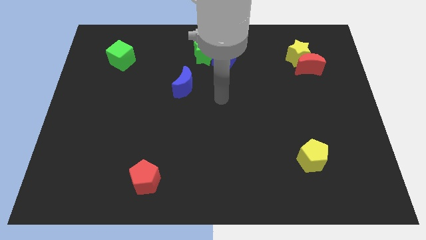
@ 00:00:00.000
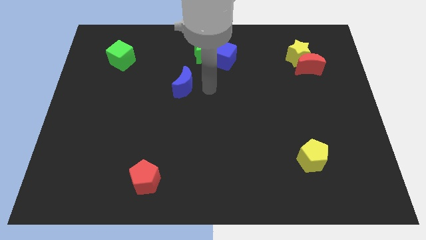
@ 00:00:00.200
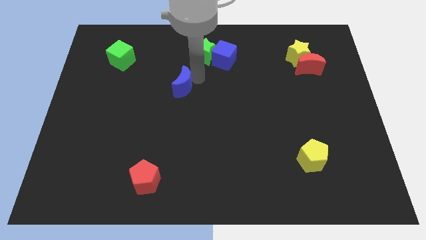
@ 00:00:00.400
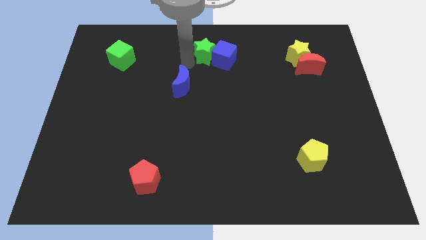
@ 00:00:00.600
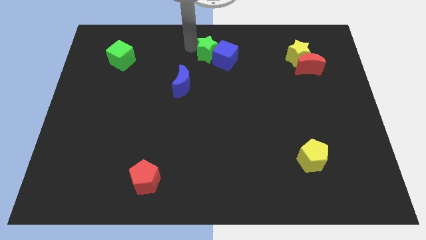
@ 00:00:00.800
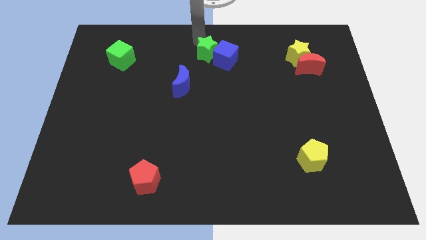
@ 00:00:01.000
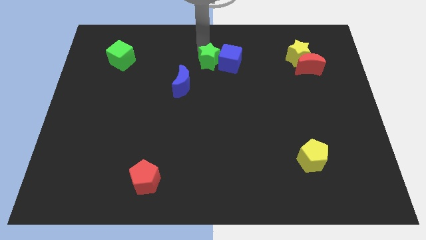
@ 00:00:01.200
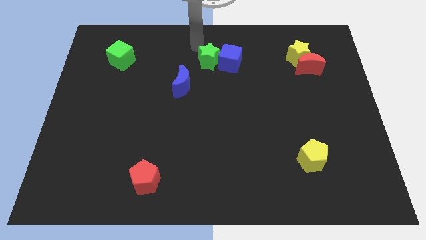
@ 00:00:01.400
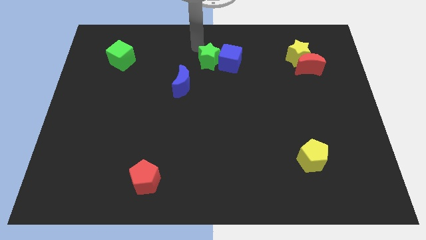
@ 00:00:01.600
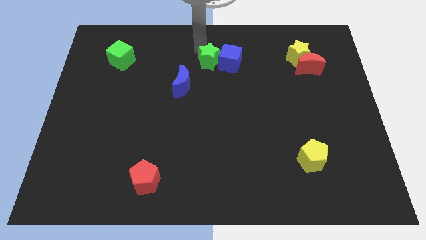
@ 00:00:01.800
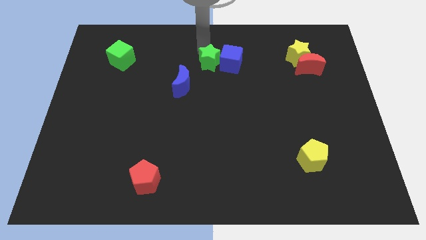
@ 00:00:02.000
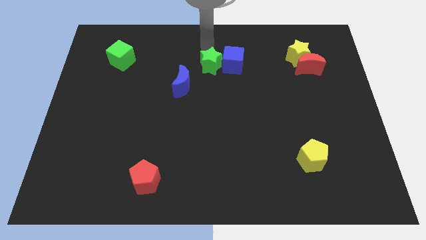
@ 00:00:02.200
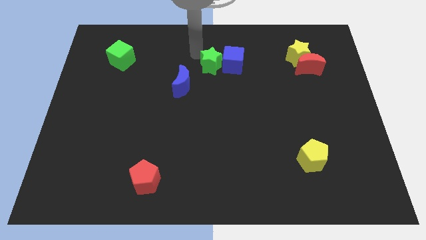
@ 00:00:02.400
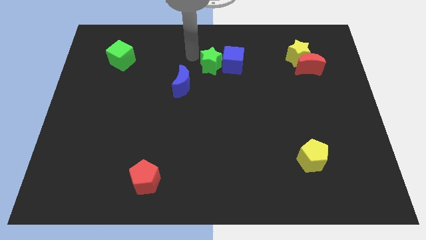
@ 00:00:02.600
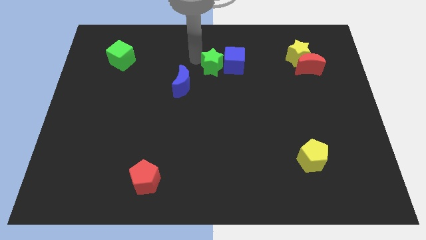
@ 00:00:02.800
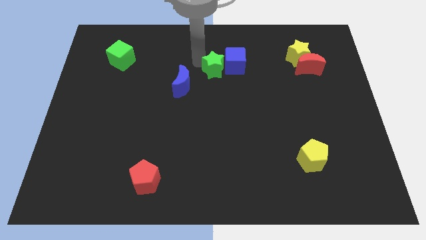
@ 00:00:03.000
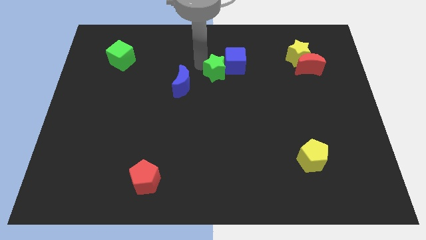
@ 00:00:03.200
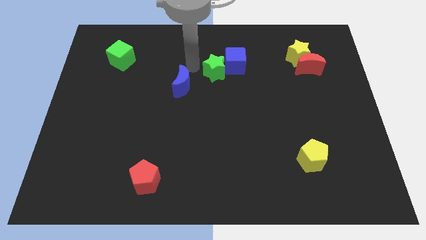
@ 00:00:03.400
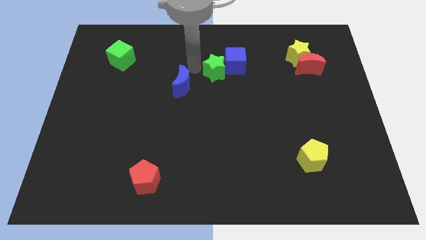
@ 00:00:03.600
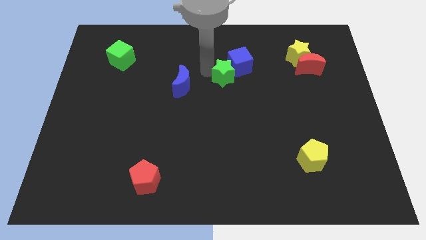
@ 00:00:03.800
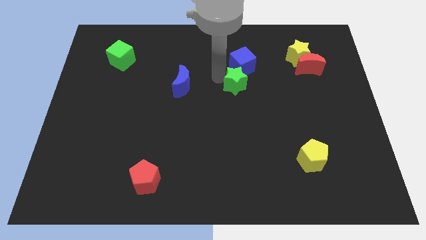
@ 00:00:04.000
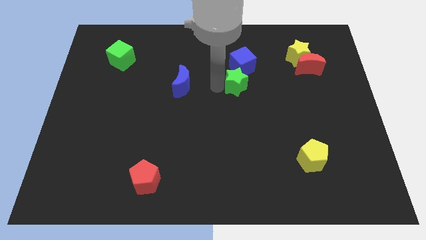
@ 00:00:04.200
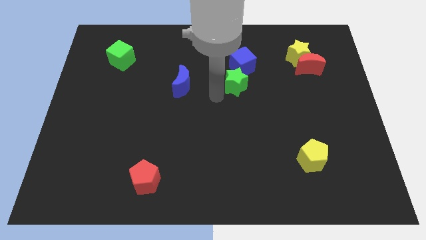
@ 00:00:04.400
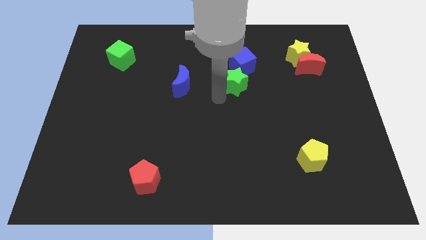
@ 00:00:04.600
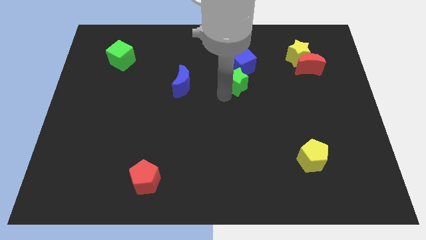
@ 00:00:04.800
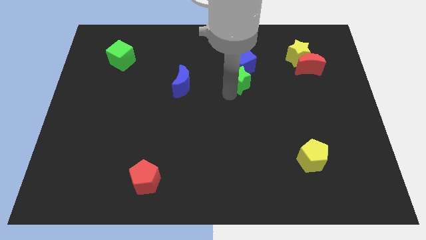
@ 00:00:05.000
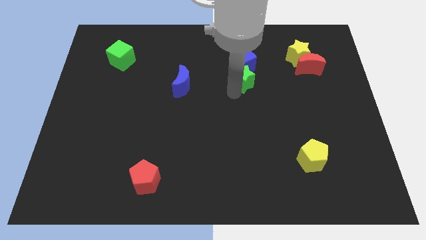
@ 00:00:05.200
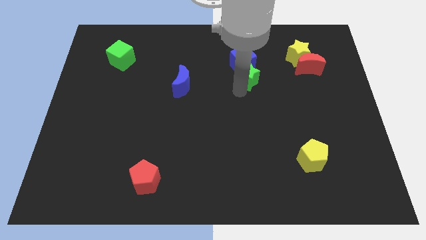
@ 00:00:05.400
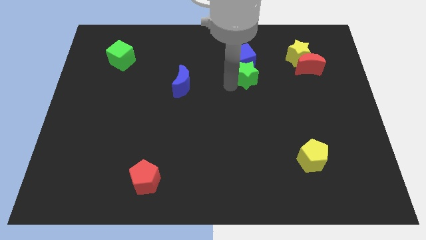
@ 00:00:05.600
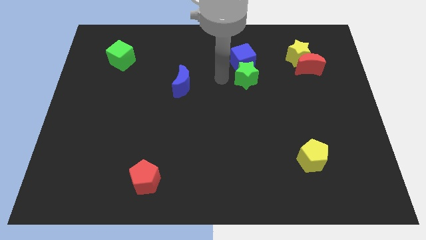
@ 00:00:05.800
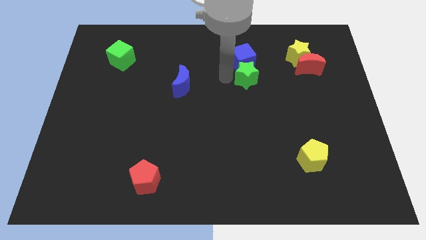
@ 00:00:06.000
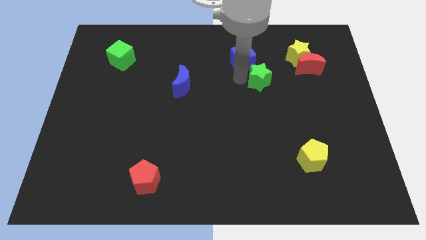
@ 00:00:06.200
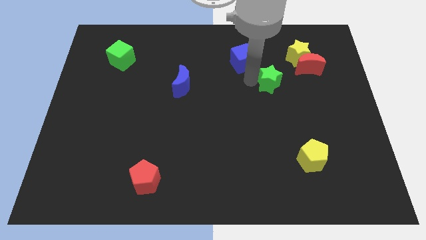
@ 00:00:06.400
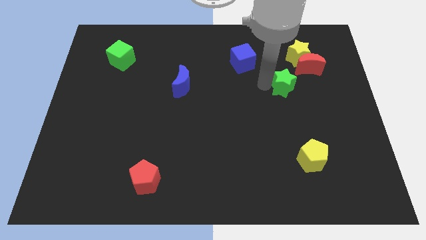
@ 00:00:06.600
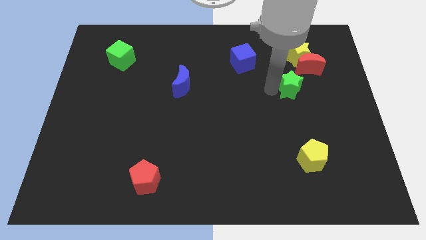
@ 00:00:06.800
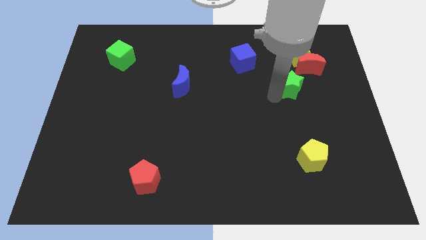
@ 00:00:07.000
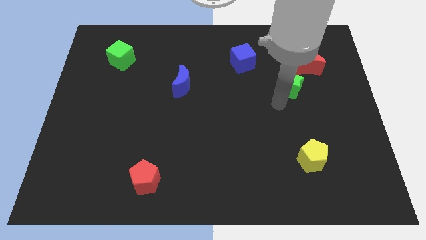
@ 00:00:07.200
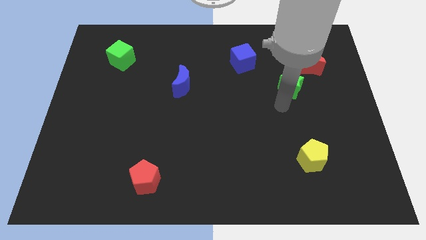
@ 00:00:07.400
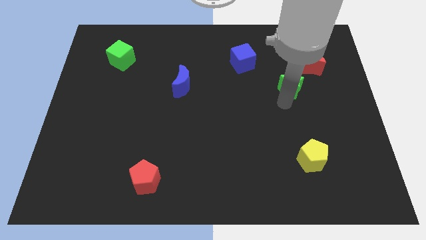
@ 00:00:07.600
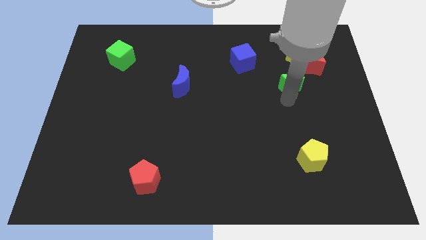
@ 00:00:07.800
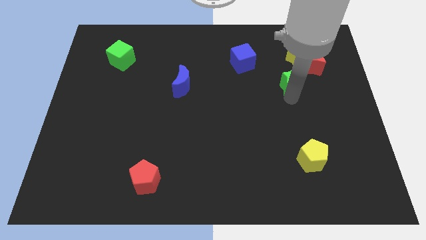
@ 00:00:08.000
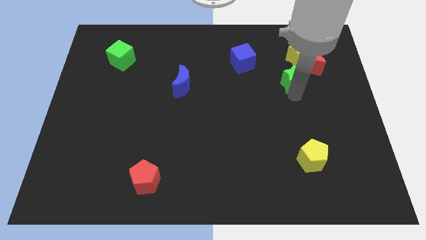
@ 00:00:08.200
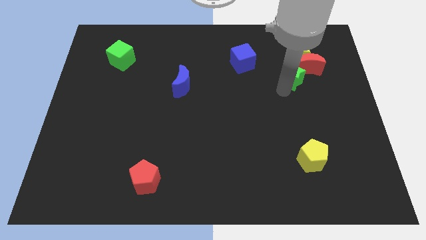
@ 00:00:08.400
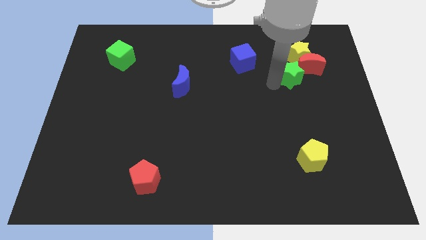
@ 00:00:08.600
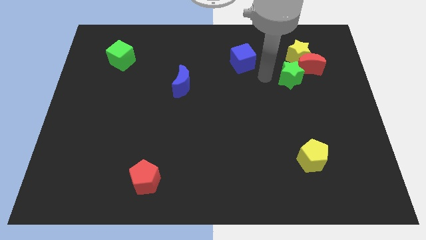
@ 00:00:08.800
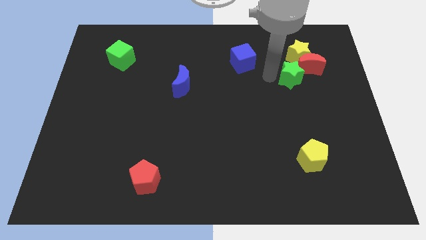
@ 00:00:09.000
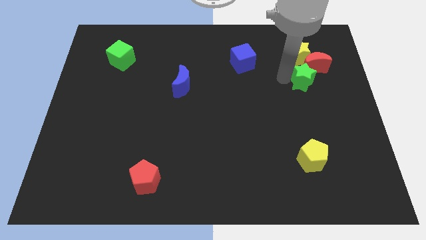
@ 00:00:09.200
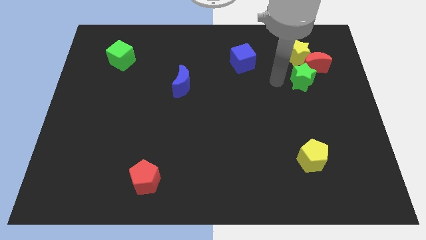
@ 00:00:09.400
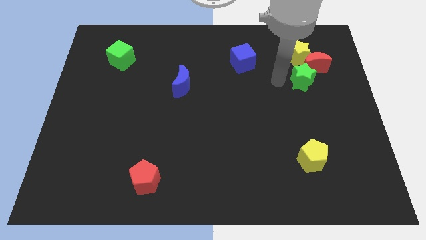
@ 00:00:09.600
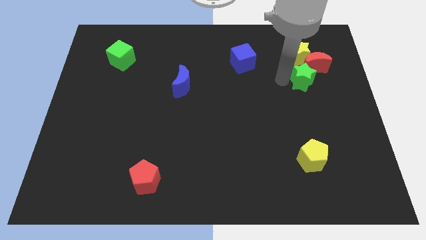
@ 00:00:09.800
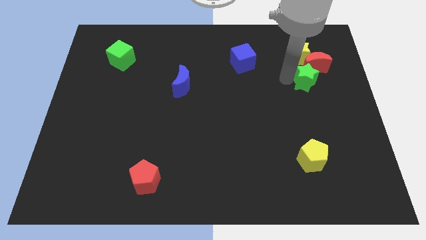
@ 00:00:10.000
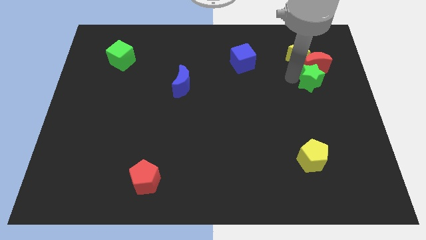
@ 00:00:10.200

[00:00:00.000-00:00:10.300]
slide the green star to the bottom right side of the yellow star

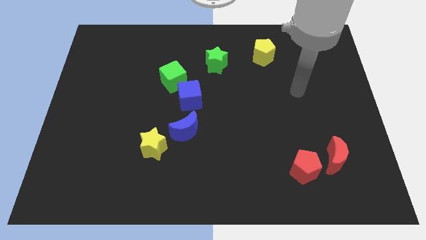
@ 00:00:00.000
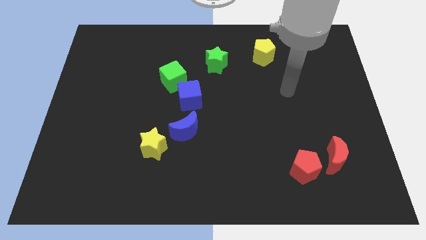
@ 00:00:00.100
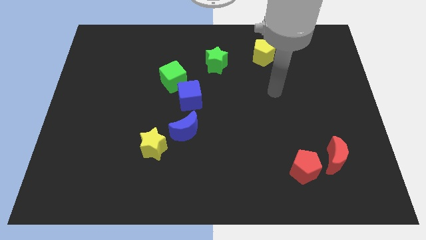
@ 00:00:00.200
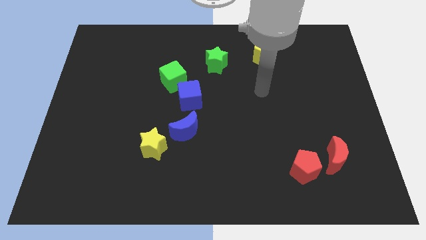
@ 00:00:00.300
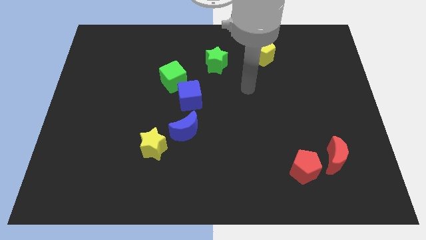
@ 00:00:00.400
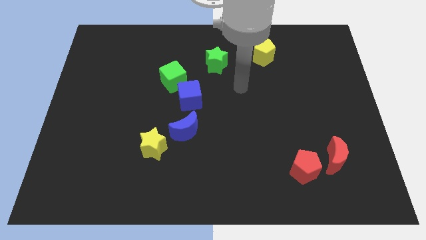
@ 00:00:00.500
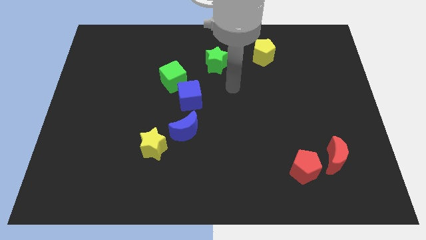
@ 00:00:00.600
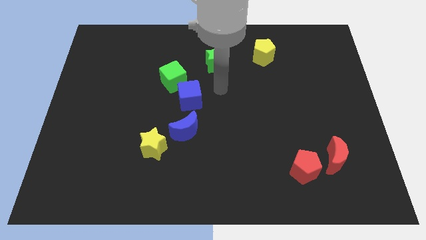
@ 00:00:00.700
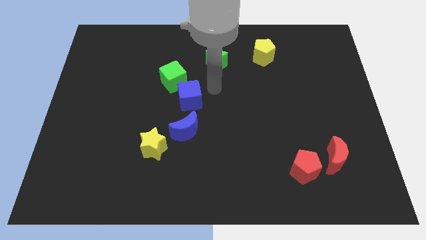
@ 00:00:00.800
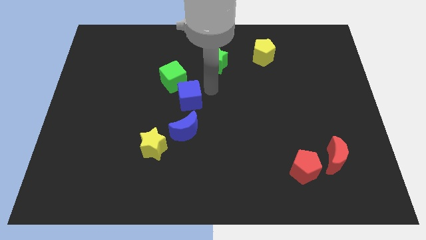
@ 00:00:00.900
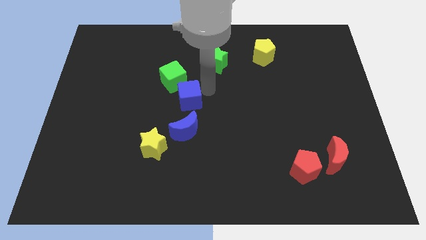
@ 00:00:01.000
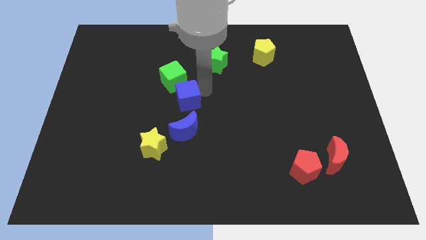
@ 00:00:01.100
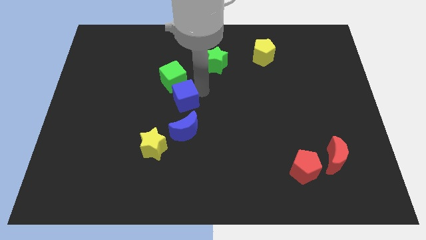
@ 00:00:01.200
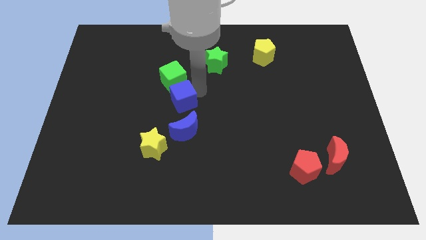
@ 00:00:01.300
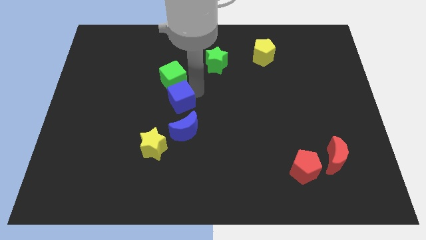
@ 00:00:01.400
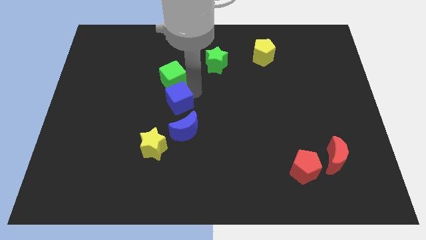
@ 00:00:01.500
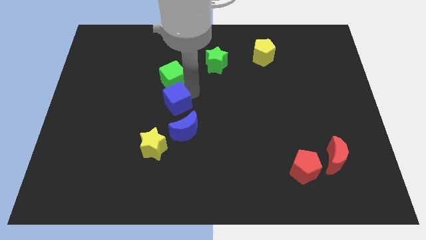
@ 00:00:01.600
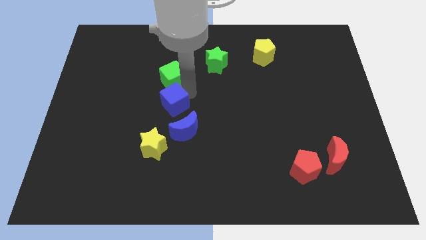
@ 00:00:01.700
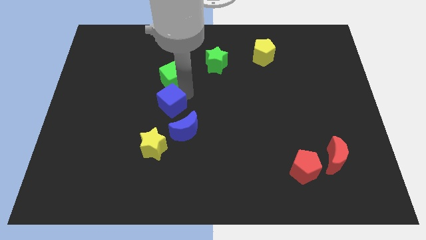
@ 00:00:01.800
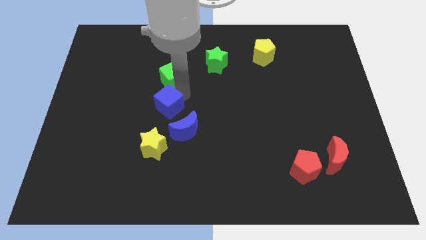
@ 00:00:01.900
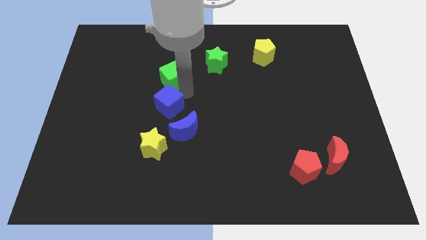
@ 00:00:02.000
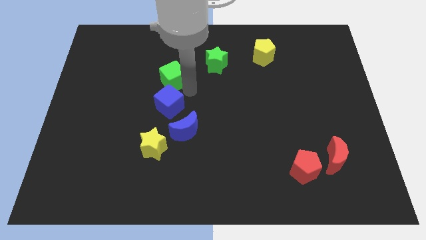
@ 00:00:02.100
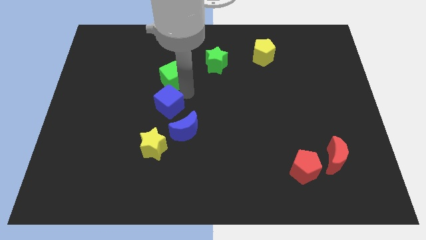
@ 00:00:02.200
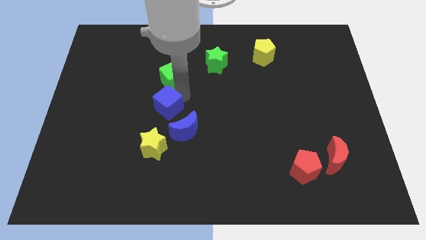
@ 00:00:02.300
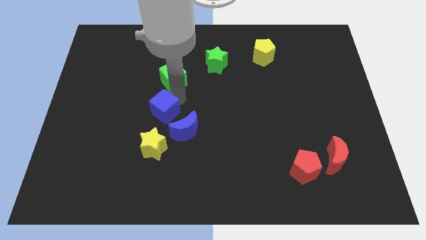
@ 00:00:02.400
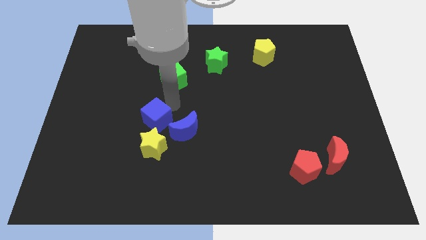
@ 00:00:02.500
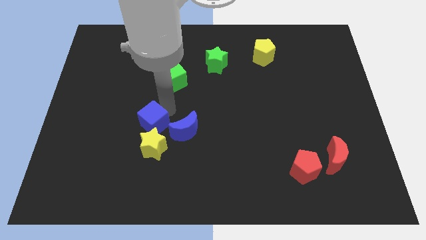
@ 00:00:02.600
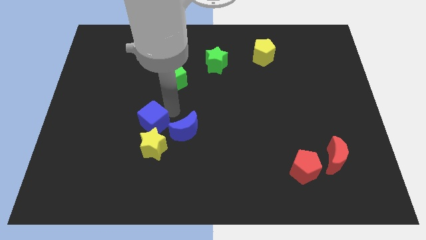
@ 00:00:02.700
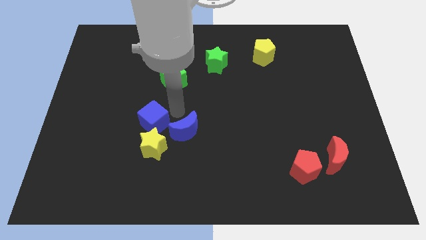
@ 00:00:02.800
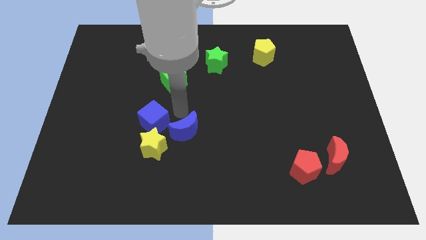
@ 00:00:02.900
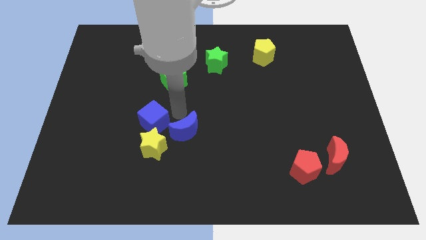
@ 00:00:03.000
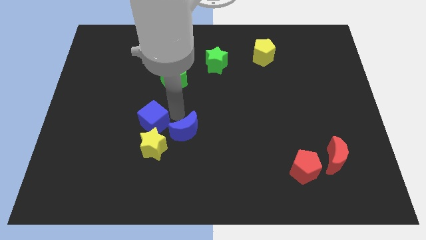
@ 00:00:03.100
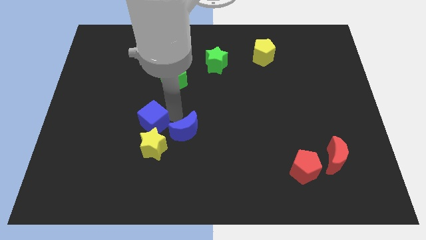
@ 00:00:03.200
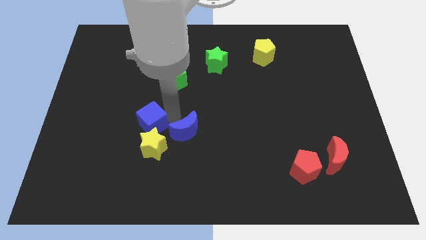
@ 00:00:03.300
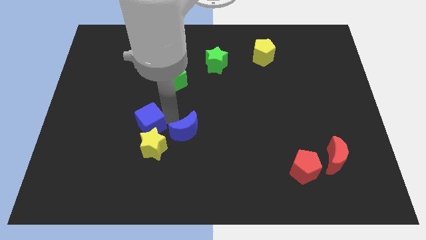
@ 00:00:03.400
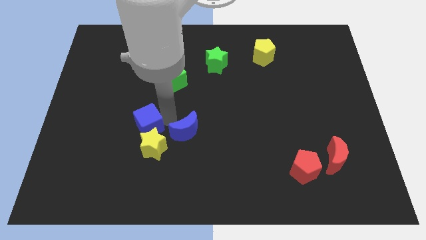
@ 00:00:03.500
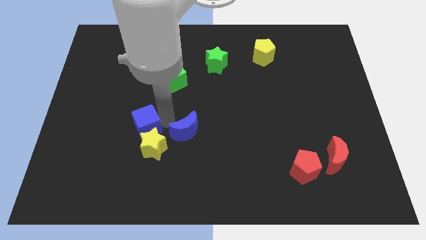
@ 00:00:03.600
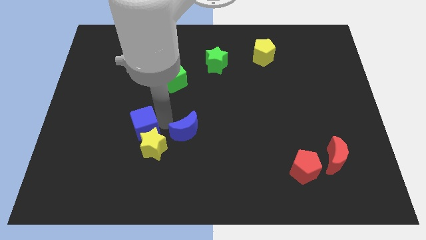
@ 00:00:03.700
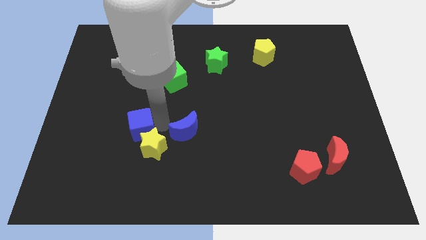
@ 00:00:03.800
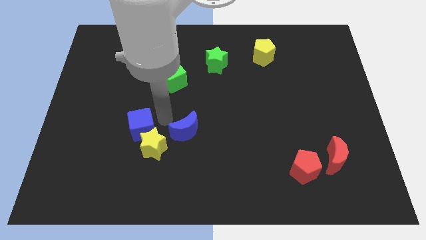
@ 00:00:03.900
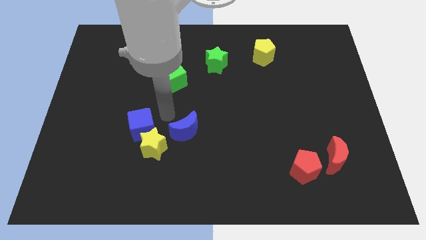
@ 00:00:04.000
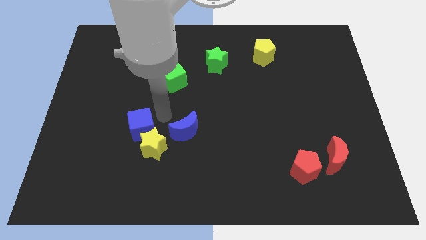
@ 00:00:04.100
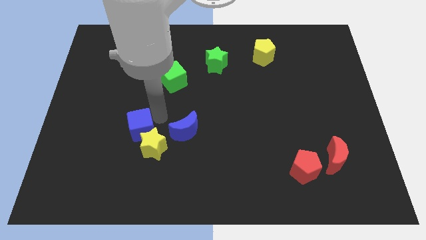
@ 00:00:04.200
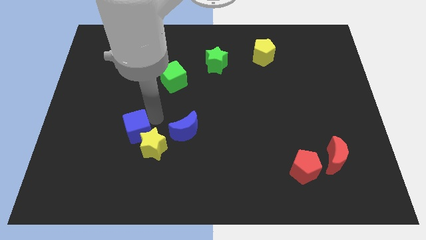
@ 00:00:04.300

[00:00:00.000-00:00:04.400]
put the blue cube just left of the yellow star
